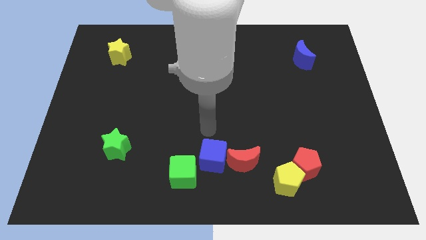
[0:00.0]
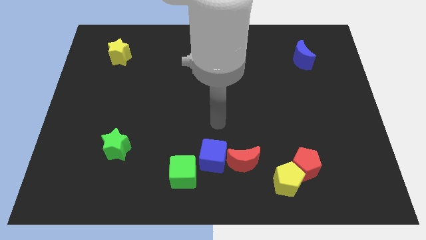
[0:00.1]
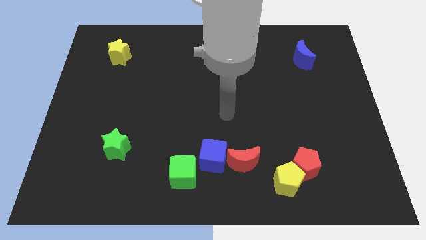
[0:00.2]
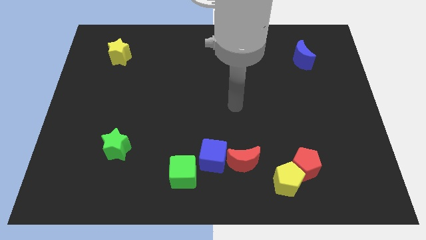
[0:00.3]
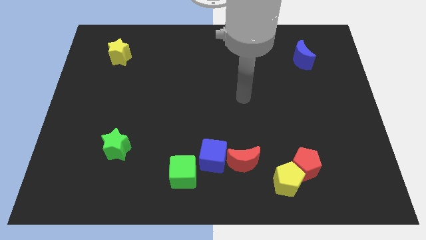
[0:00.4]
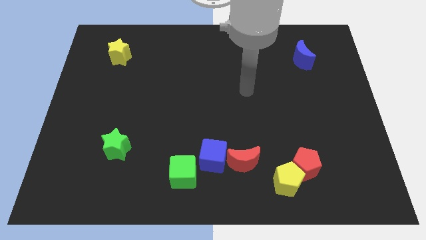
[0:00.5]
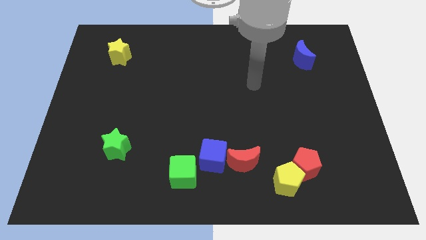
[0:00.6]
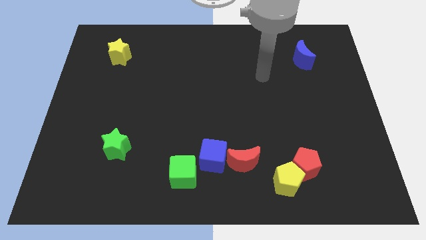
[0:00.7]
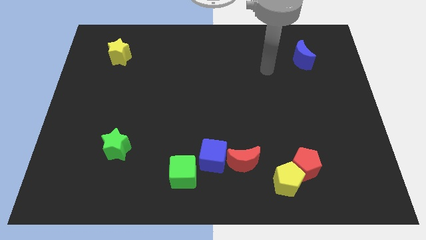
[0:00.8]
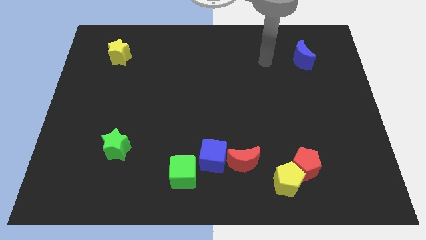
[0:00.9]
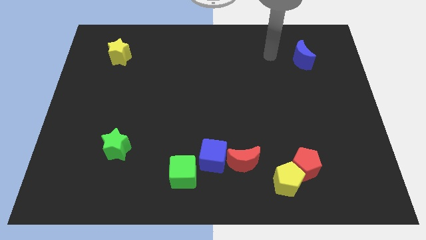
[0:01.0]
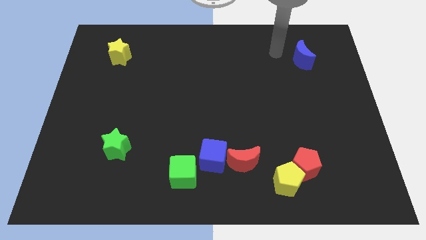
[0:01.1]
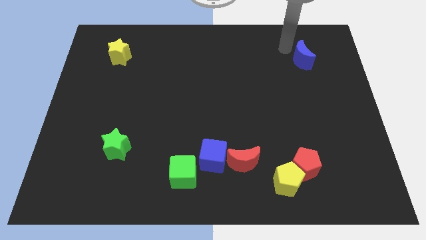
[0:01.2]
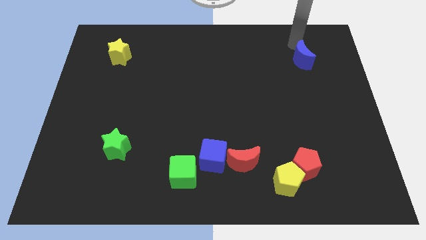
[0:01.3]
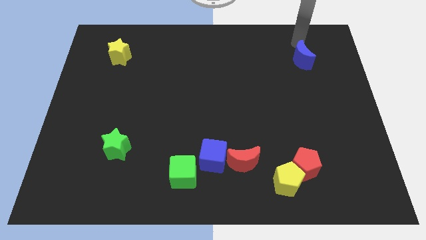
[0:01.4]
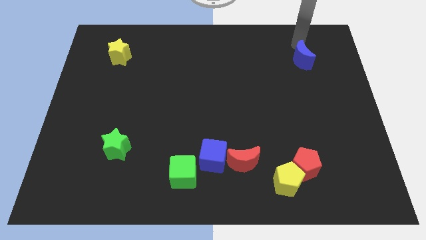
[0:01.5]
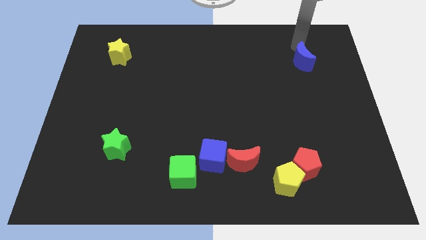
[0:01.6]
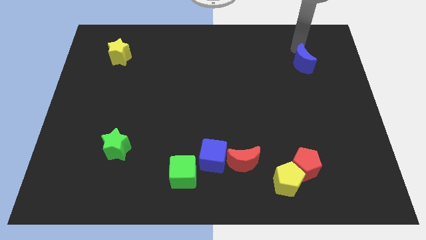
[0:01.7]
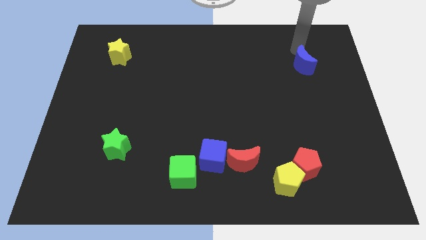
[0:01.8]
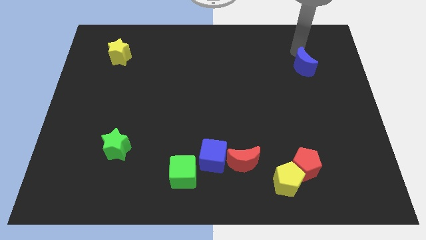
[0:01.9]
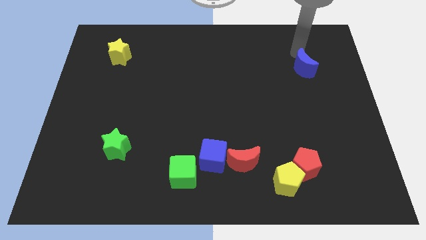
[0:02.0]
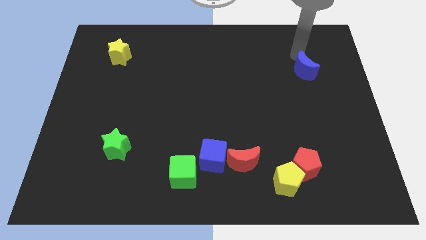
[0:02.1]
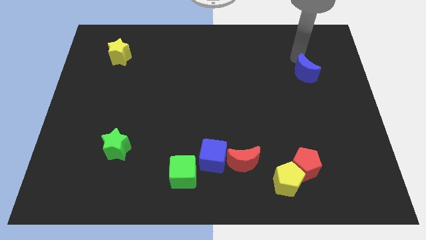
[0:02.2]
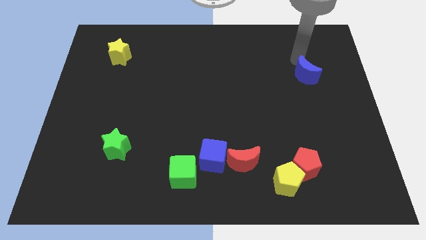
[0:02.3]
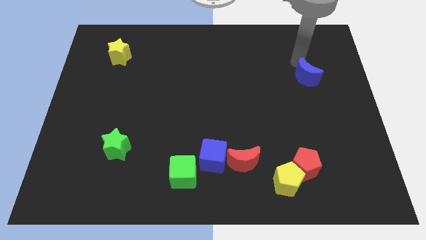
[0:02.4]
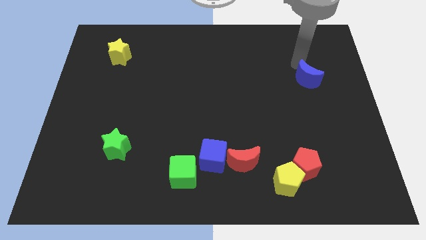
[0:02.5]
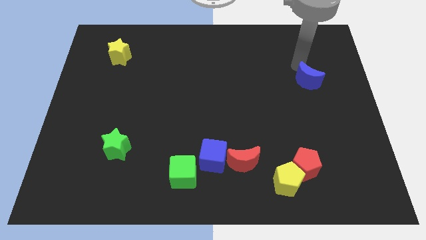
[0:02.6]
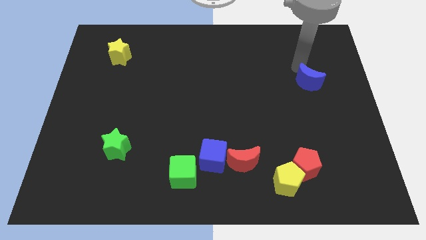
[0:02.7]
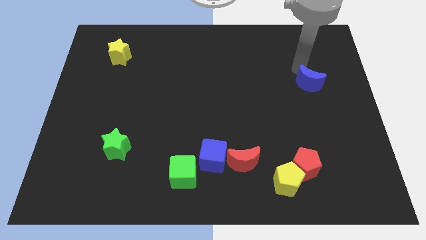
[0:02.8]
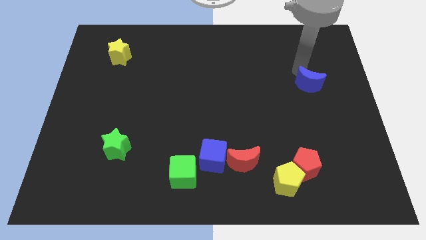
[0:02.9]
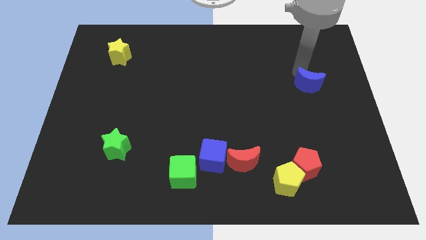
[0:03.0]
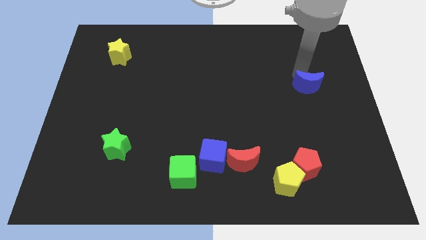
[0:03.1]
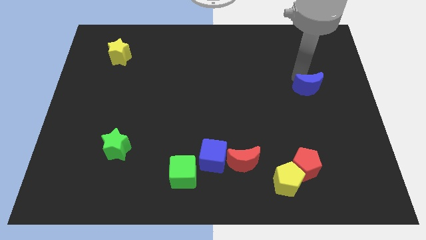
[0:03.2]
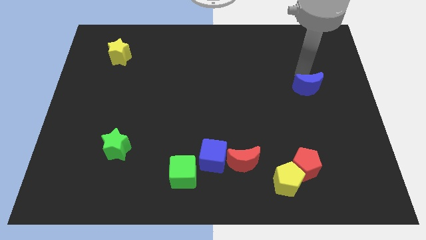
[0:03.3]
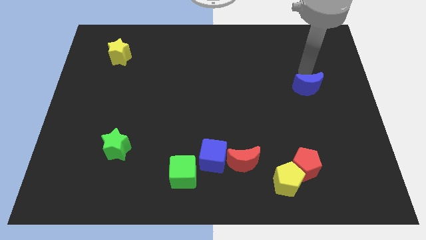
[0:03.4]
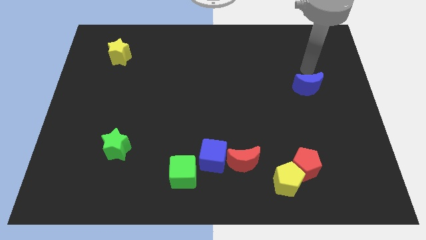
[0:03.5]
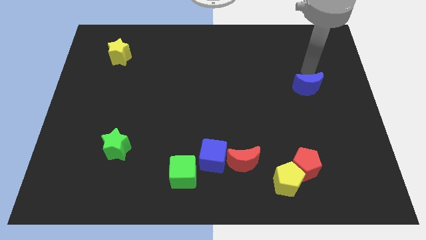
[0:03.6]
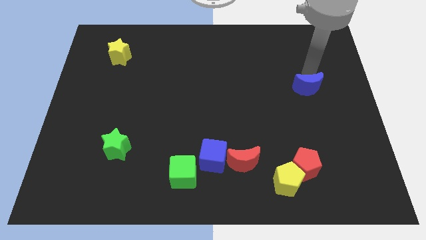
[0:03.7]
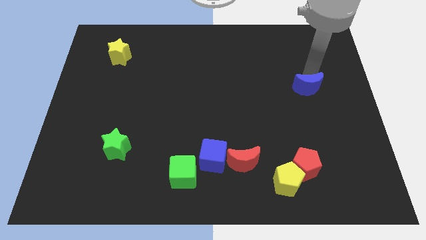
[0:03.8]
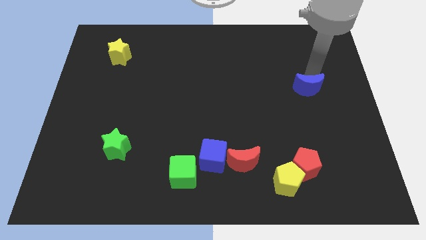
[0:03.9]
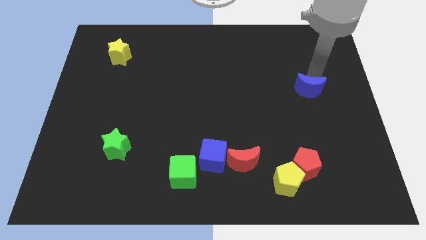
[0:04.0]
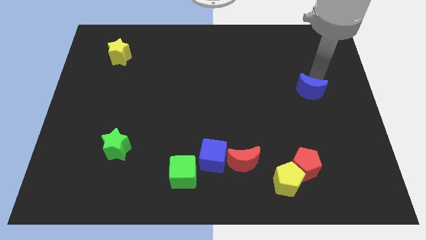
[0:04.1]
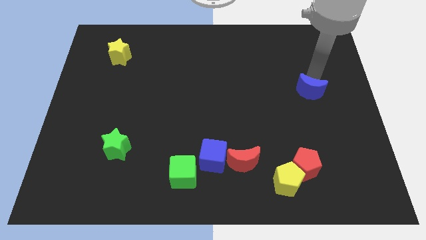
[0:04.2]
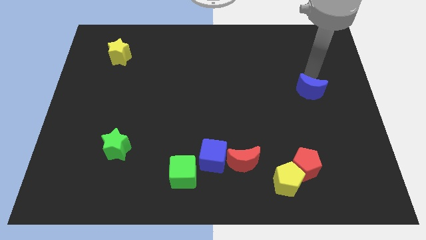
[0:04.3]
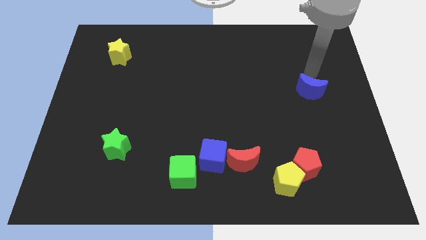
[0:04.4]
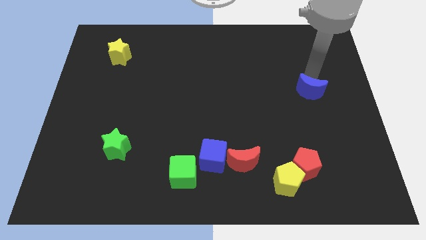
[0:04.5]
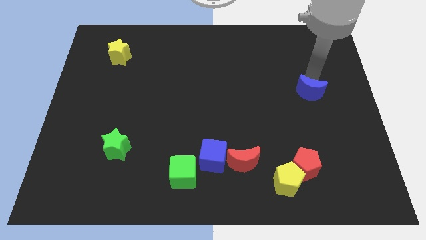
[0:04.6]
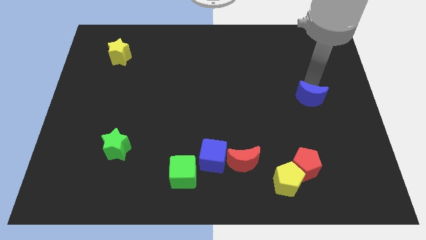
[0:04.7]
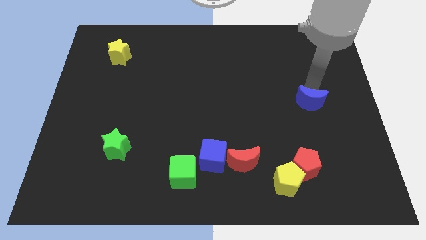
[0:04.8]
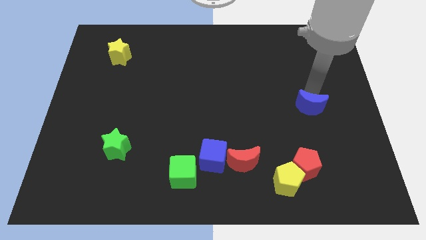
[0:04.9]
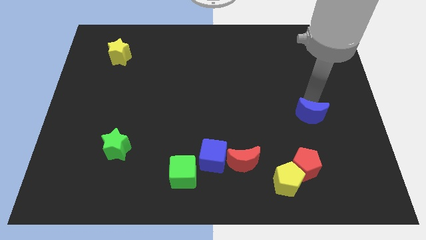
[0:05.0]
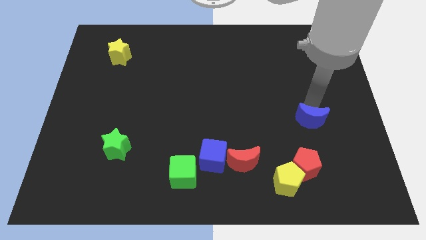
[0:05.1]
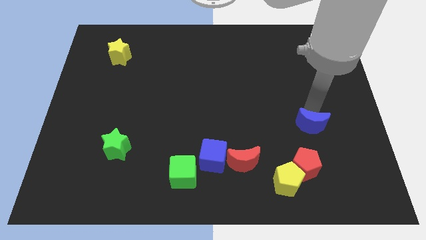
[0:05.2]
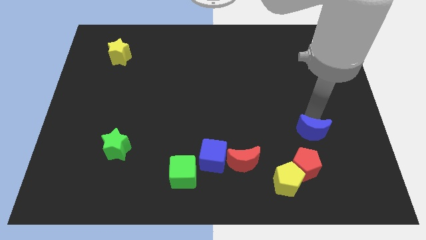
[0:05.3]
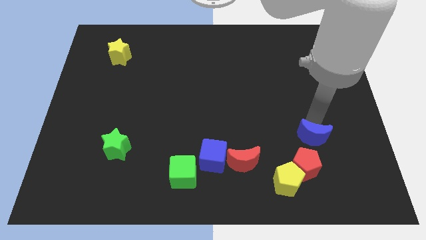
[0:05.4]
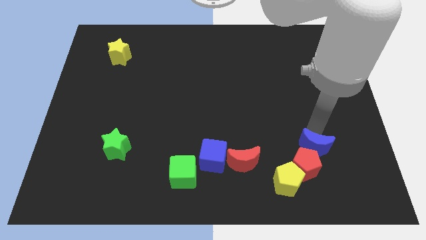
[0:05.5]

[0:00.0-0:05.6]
push the blue moon close to the red pentagon

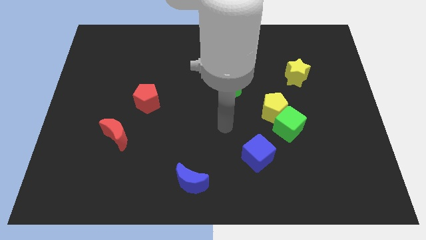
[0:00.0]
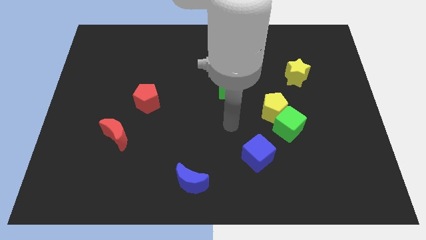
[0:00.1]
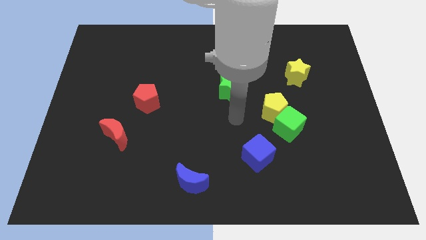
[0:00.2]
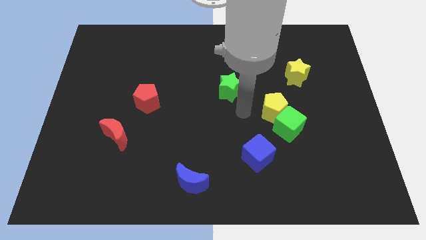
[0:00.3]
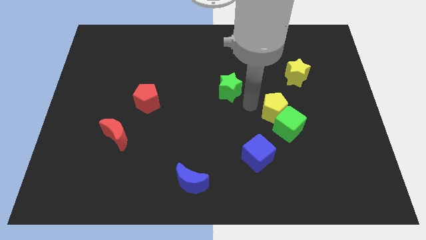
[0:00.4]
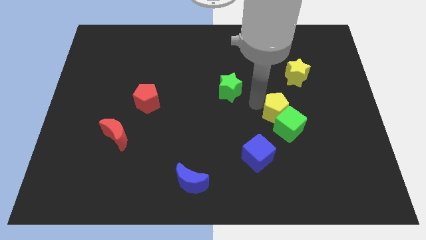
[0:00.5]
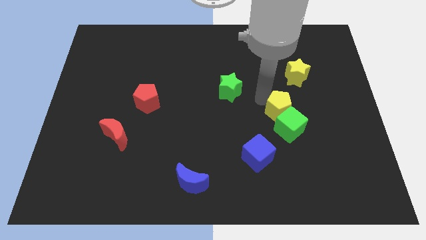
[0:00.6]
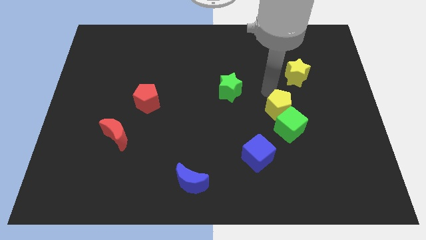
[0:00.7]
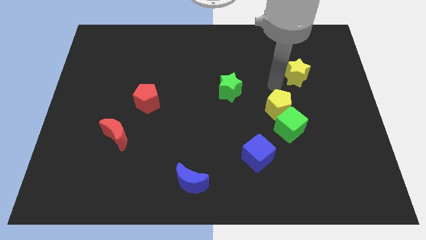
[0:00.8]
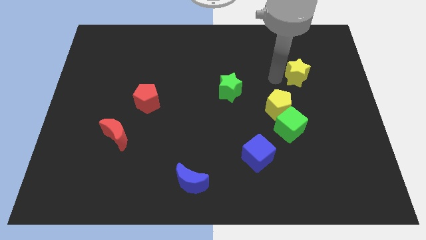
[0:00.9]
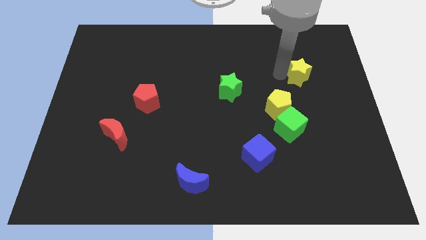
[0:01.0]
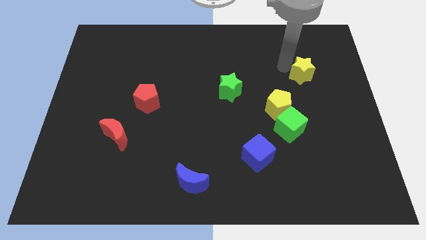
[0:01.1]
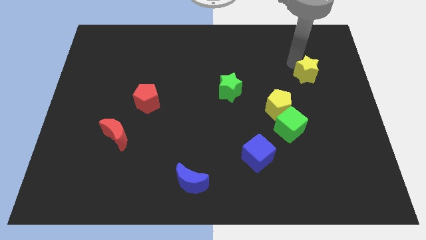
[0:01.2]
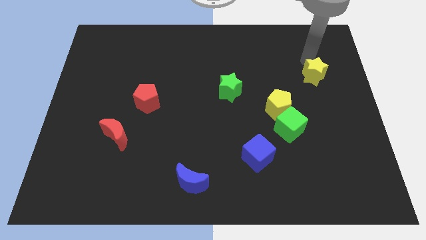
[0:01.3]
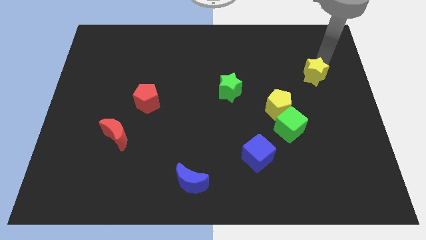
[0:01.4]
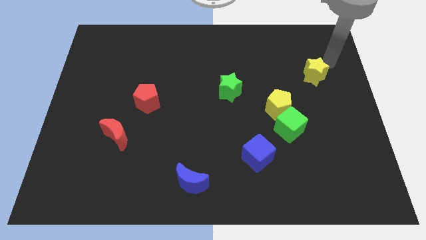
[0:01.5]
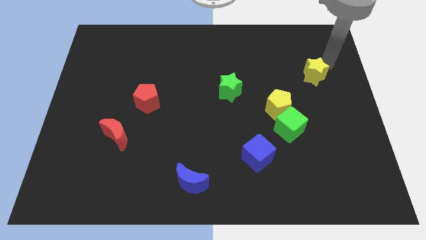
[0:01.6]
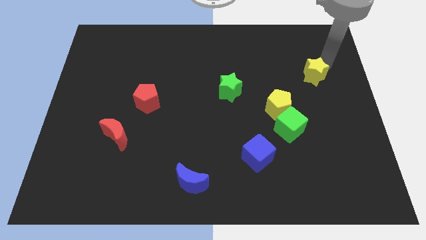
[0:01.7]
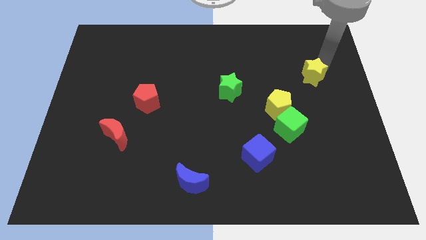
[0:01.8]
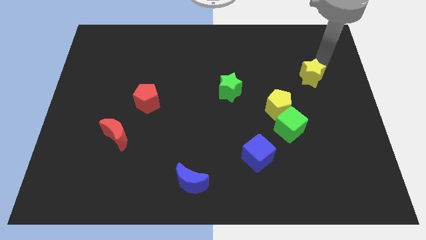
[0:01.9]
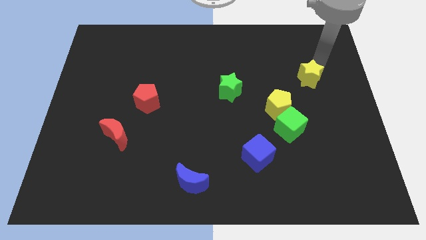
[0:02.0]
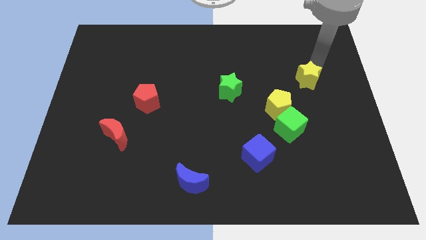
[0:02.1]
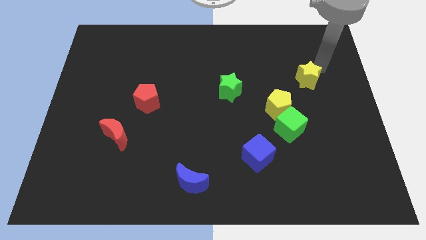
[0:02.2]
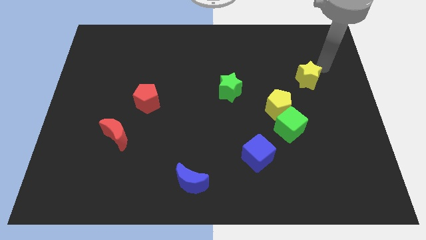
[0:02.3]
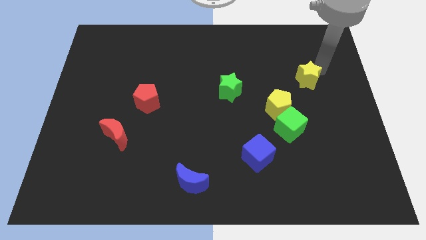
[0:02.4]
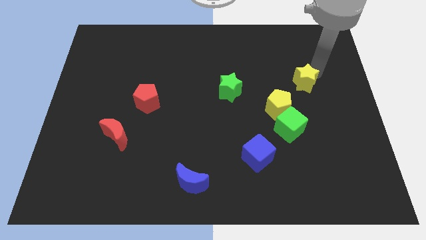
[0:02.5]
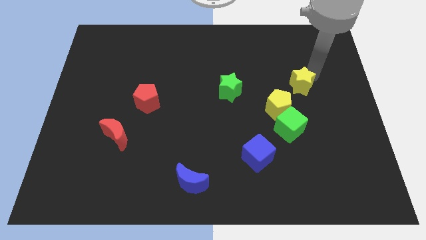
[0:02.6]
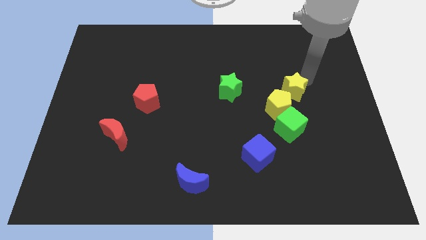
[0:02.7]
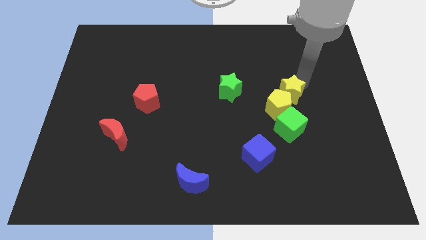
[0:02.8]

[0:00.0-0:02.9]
put the yellow star close to the yellow pentagon
